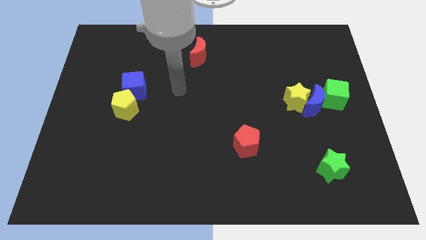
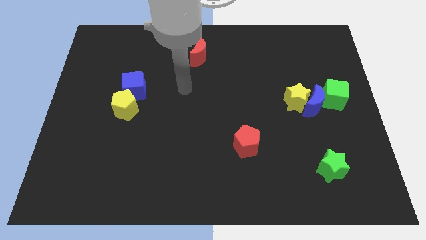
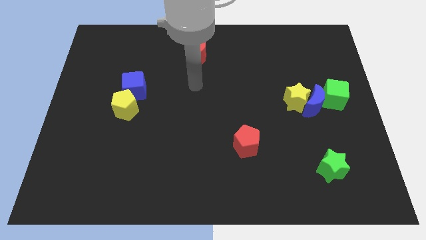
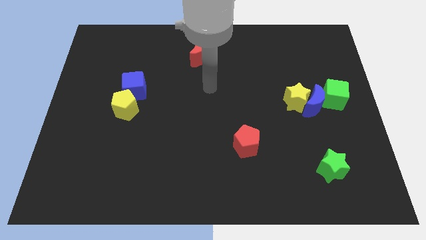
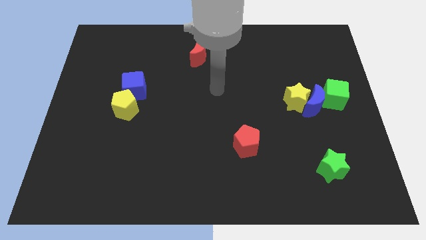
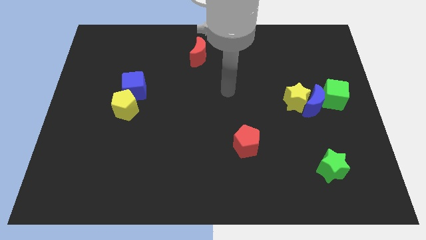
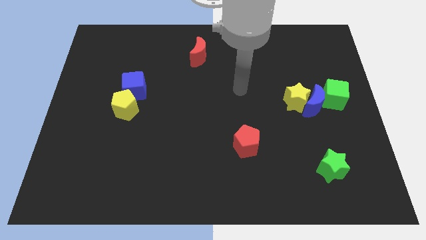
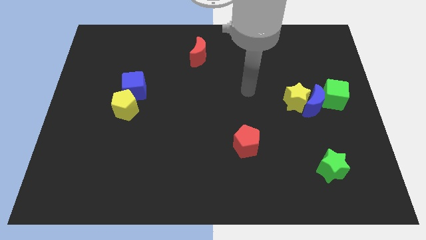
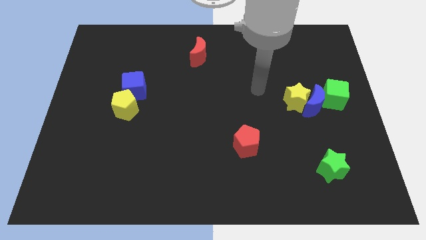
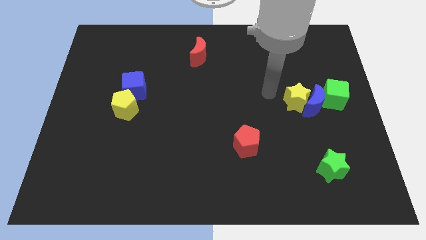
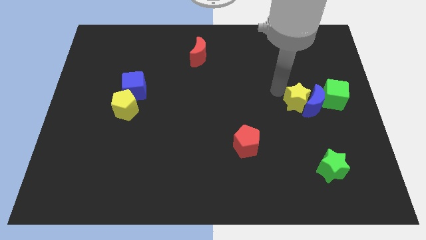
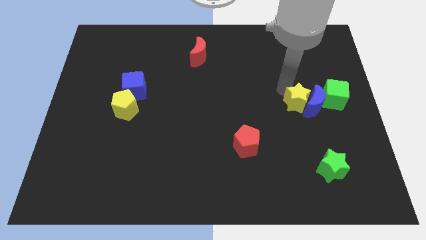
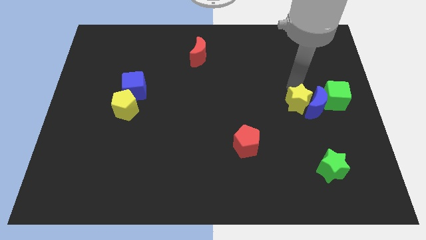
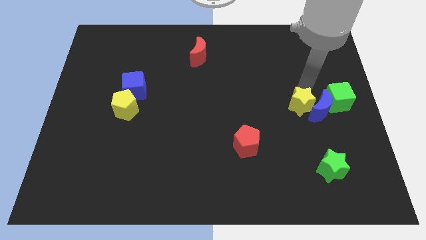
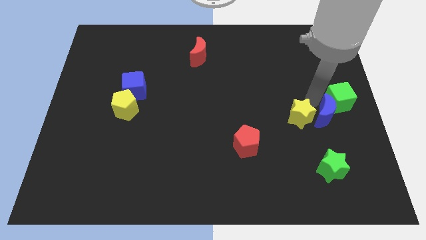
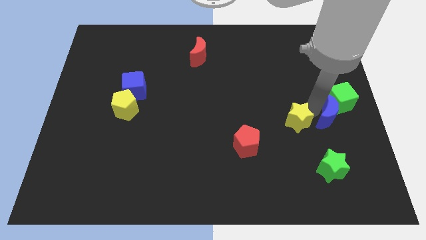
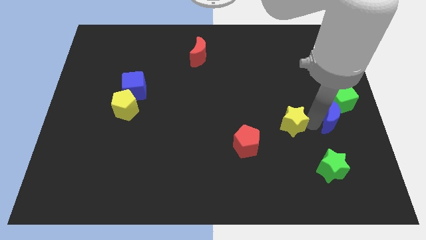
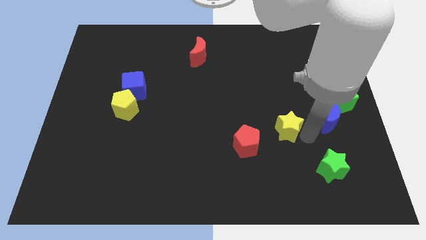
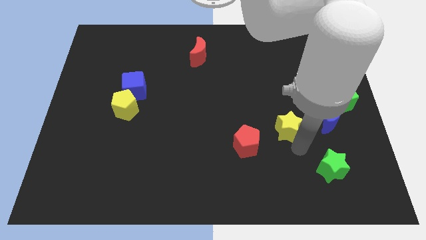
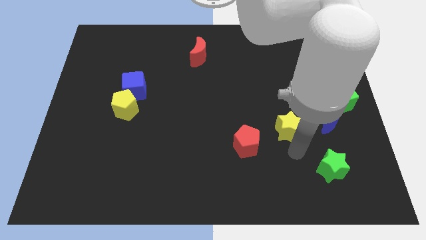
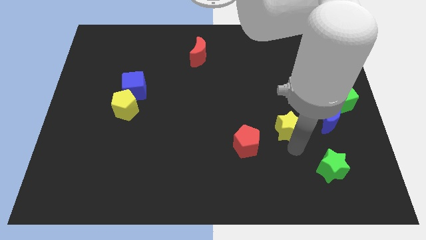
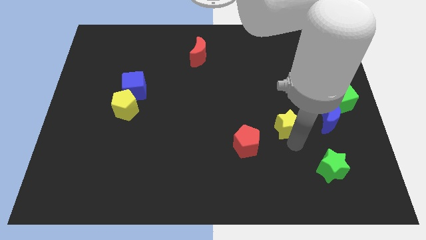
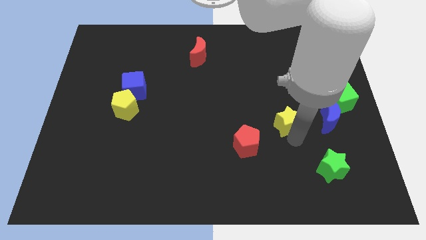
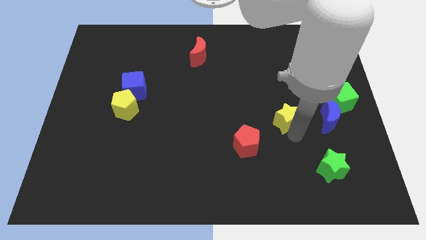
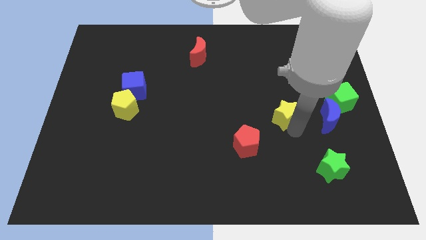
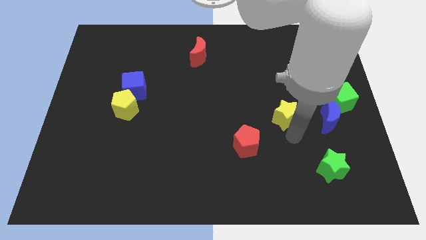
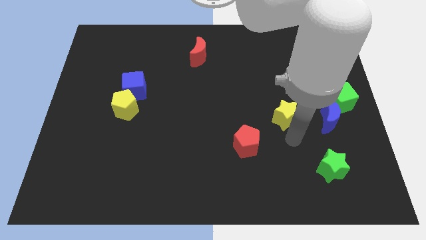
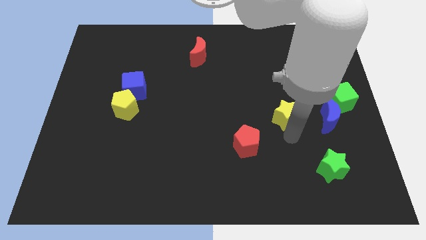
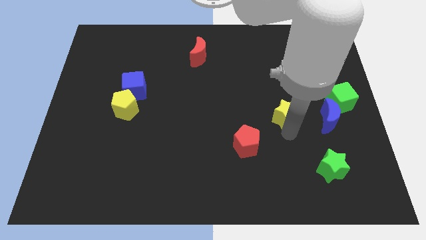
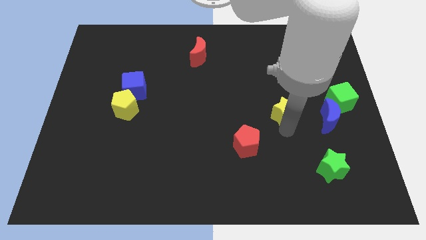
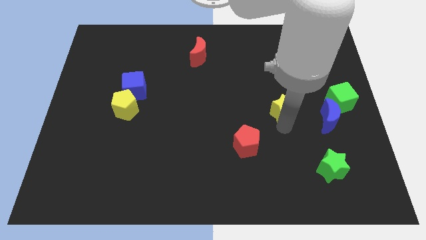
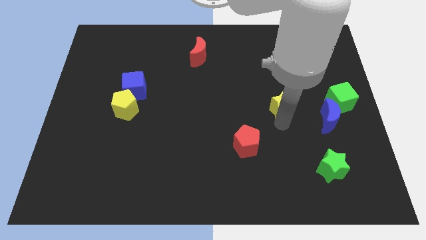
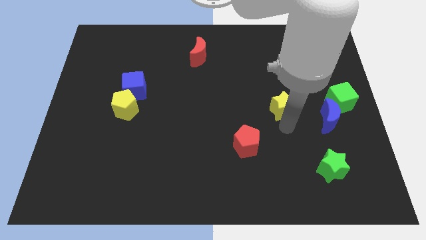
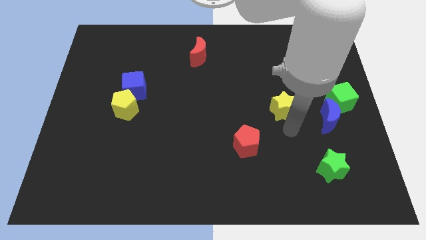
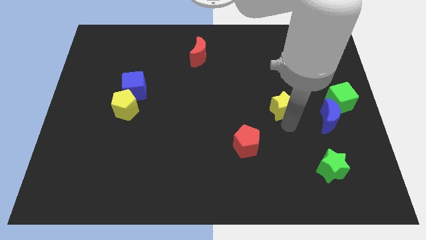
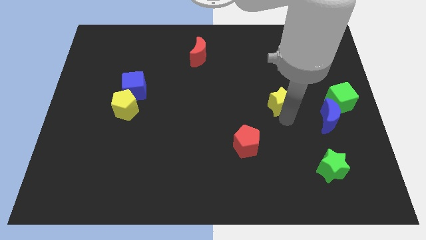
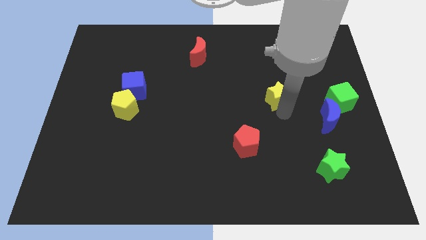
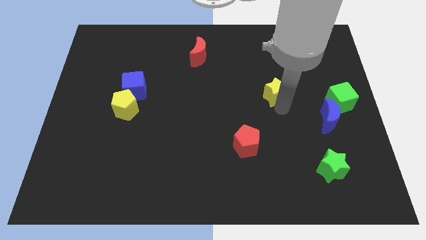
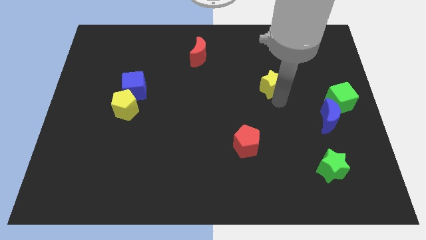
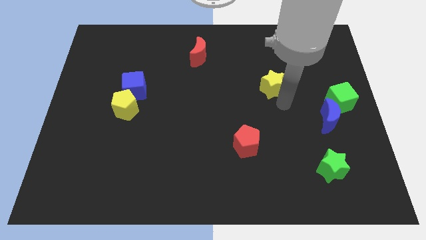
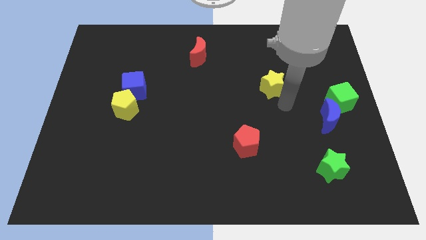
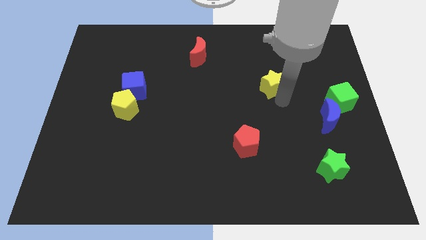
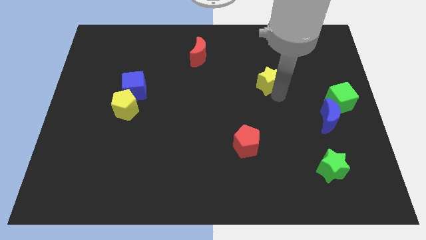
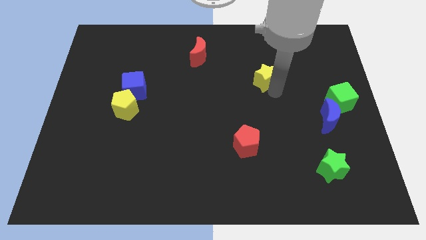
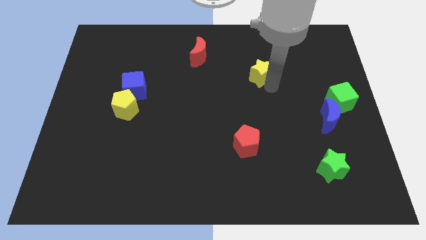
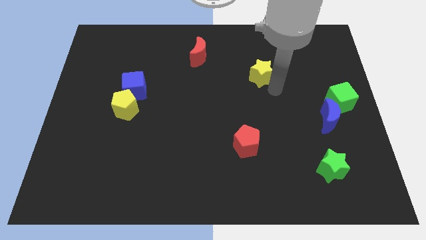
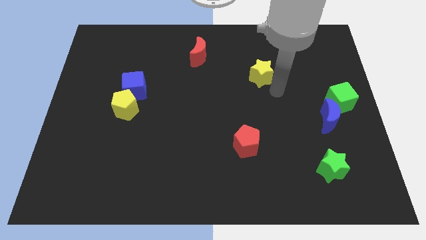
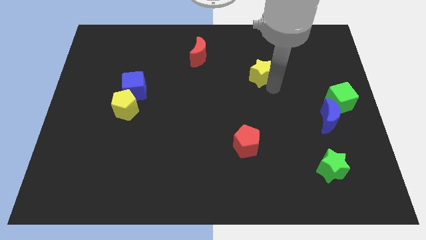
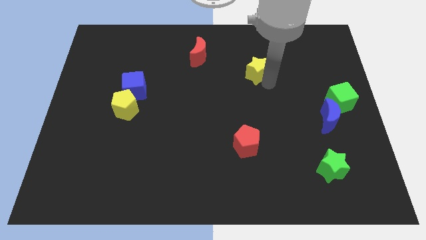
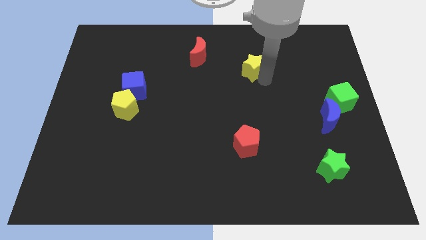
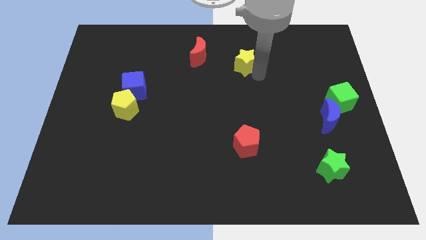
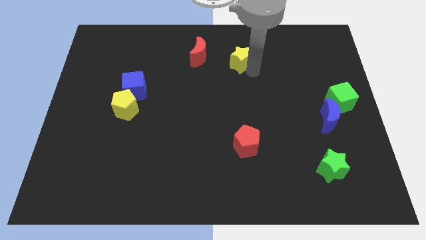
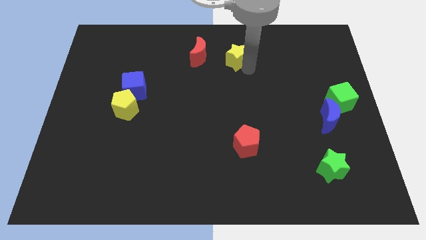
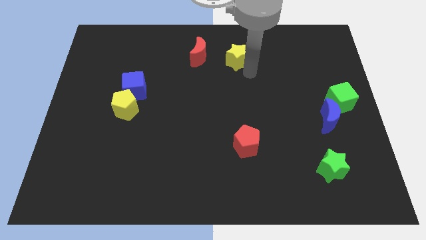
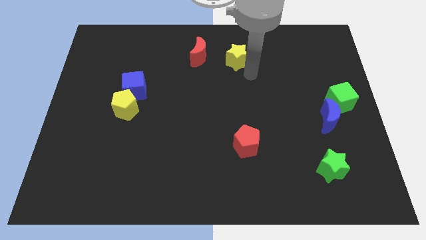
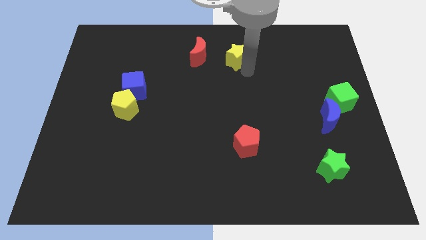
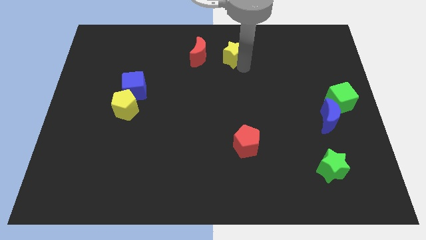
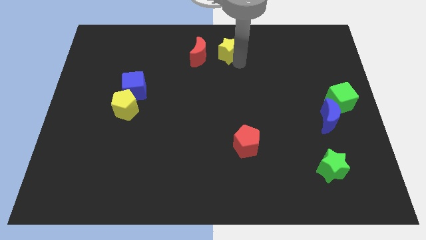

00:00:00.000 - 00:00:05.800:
put the yellow star to the top side
